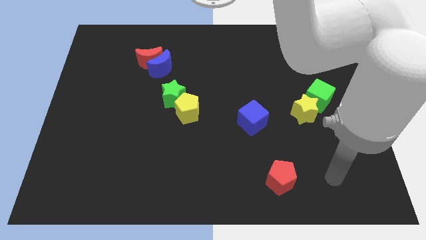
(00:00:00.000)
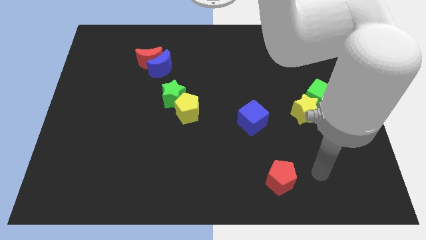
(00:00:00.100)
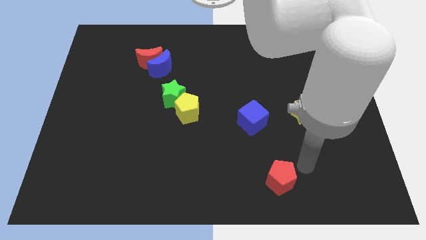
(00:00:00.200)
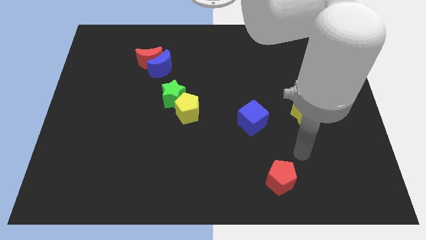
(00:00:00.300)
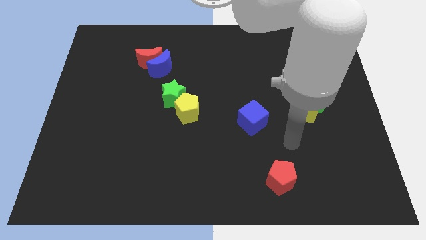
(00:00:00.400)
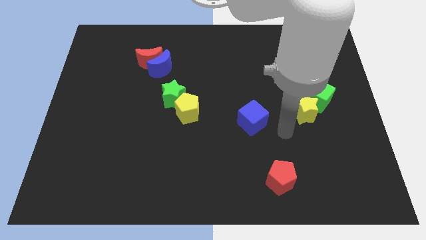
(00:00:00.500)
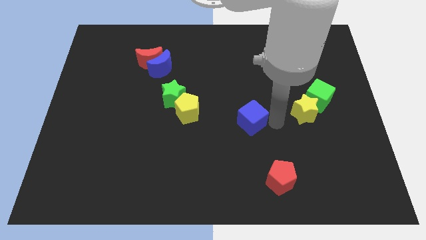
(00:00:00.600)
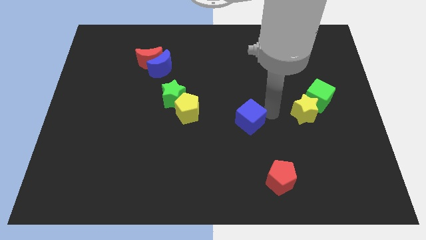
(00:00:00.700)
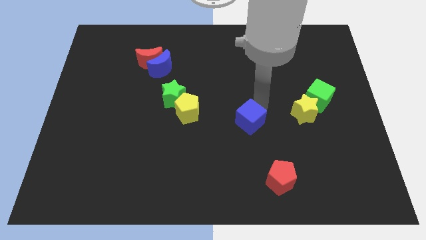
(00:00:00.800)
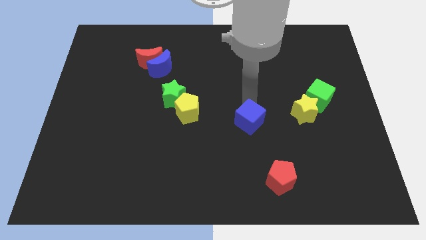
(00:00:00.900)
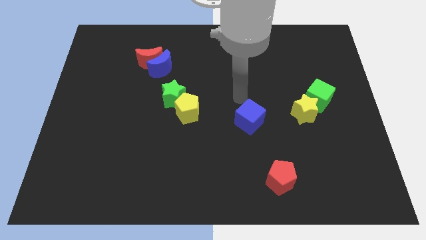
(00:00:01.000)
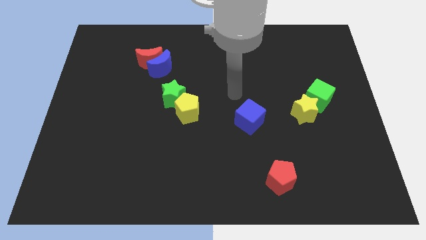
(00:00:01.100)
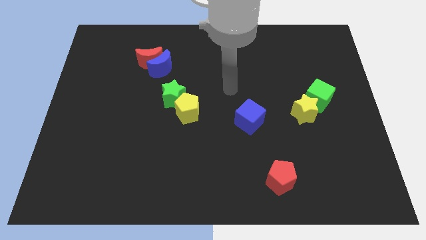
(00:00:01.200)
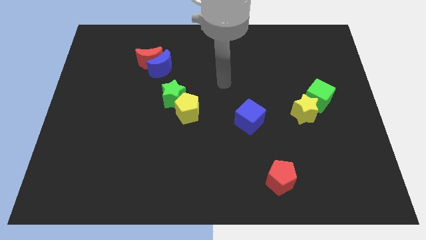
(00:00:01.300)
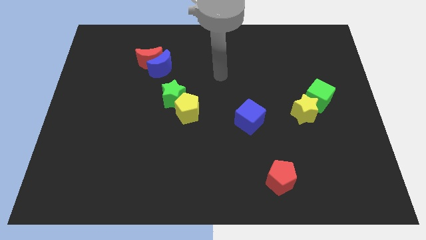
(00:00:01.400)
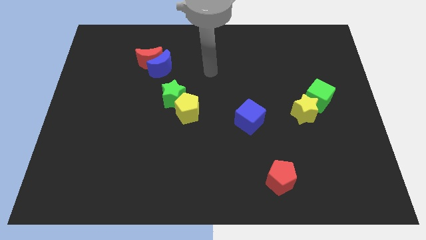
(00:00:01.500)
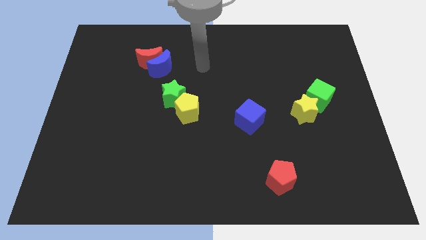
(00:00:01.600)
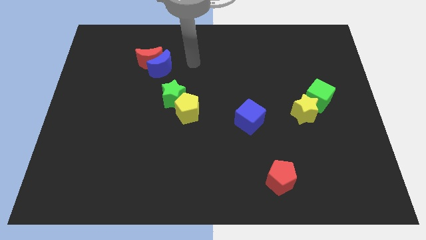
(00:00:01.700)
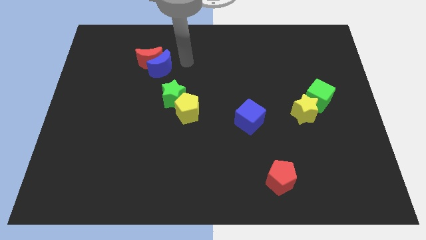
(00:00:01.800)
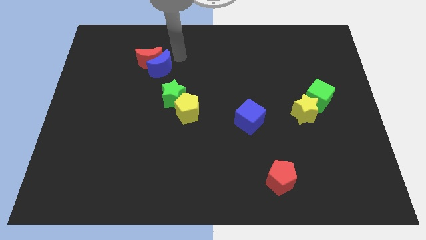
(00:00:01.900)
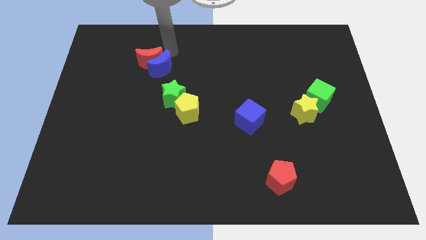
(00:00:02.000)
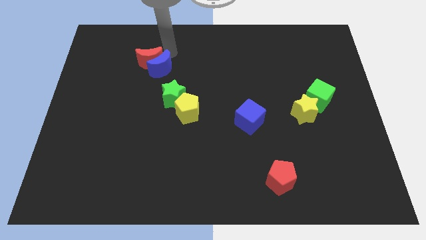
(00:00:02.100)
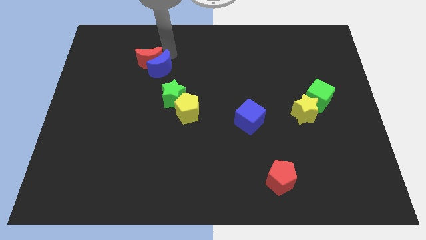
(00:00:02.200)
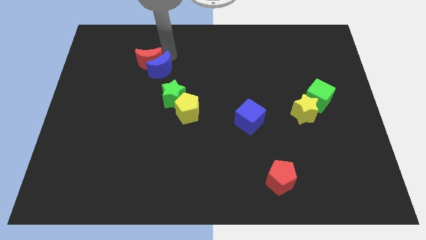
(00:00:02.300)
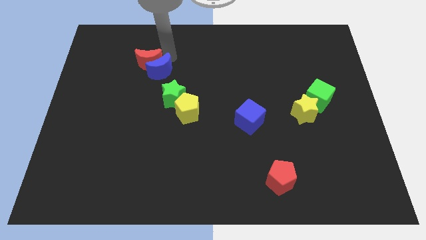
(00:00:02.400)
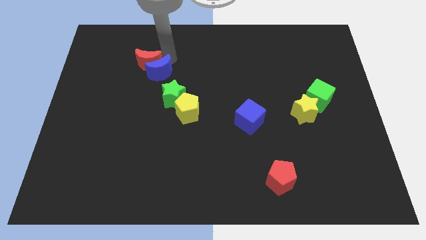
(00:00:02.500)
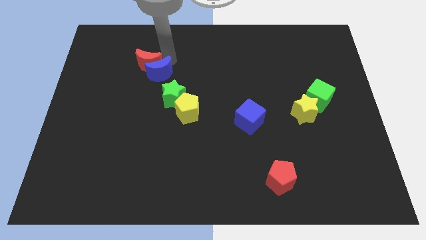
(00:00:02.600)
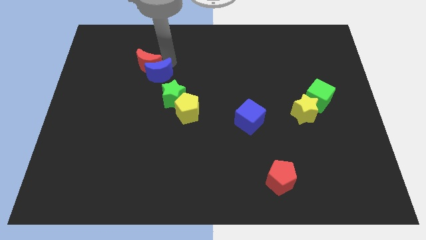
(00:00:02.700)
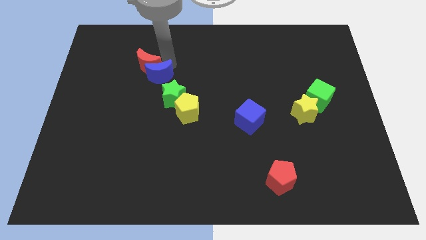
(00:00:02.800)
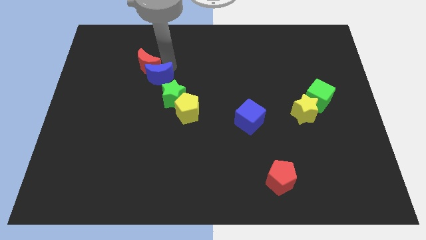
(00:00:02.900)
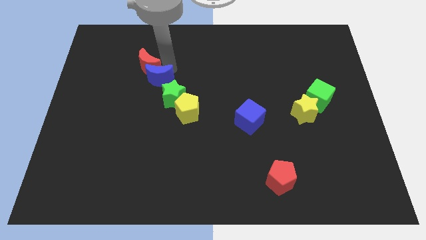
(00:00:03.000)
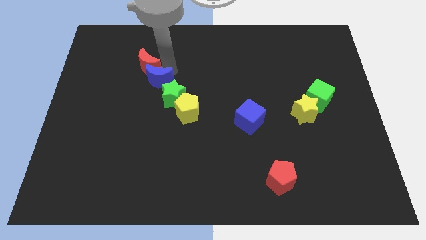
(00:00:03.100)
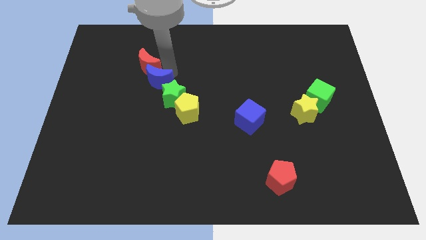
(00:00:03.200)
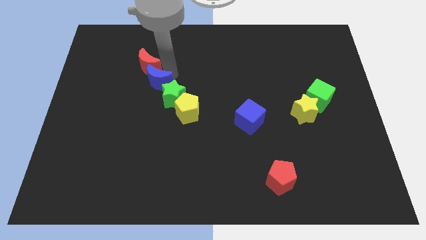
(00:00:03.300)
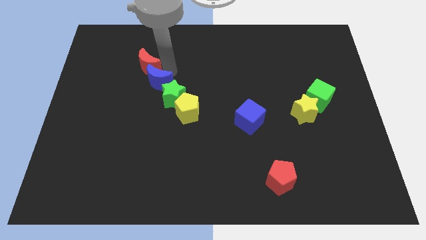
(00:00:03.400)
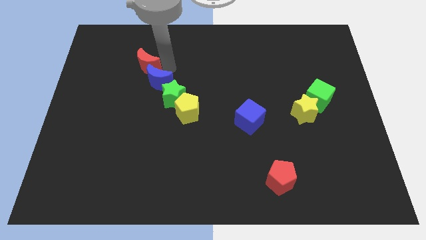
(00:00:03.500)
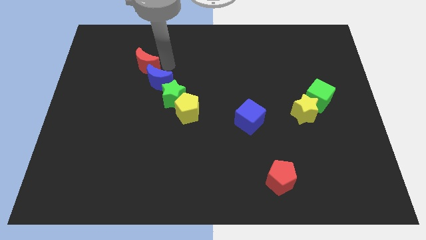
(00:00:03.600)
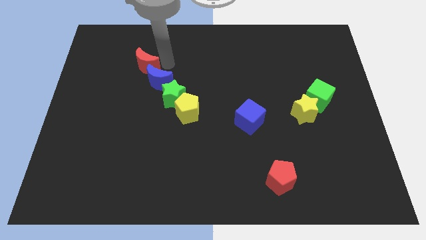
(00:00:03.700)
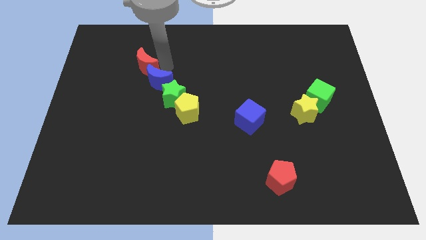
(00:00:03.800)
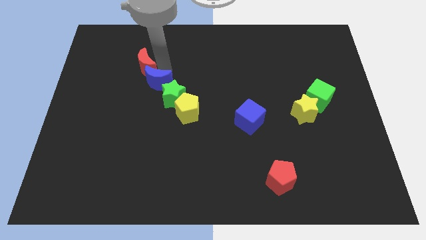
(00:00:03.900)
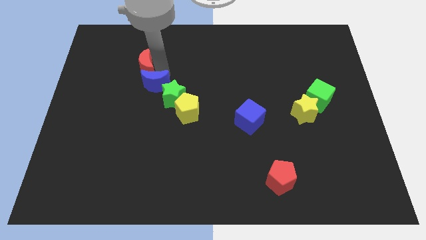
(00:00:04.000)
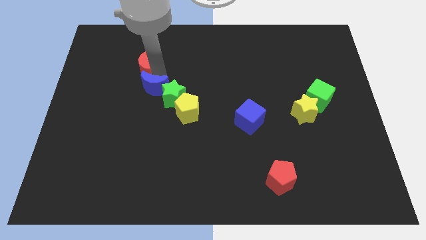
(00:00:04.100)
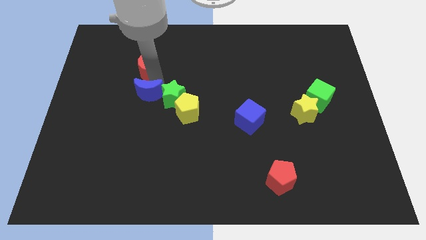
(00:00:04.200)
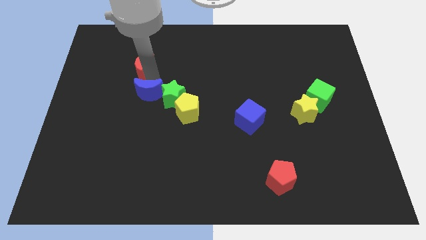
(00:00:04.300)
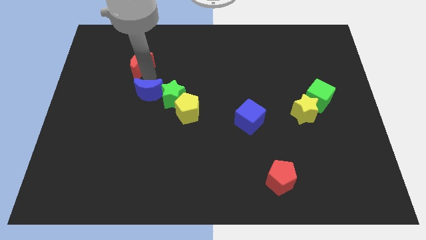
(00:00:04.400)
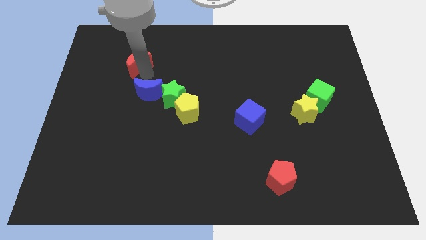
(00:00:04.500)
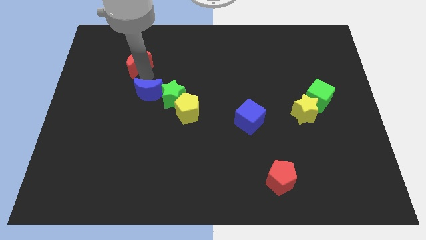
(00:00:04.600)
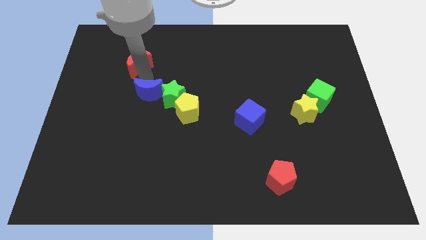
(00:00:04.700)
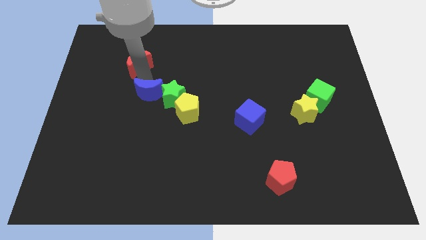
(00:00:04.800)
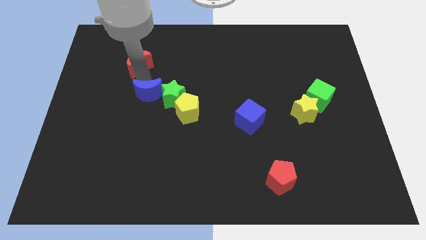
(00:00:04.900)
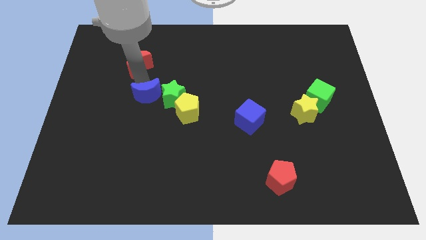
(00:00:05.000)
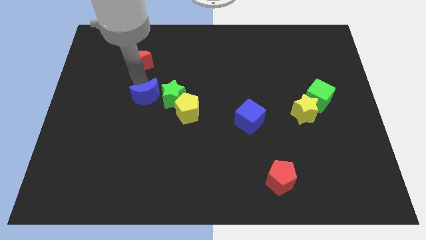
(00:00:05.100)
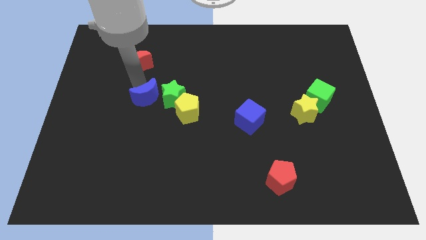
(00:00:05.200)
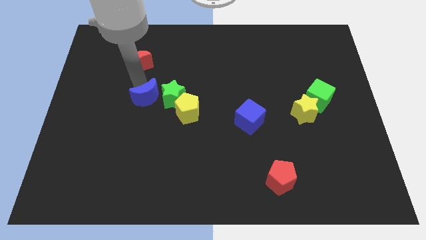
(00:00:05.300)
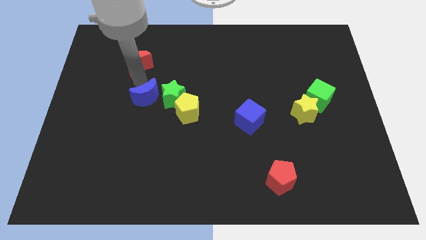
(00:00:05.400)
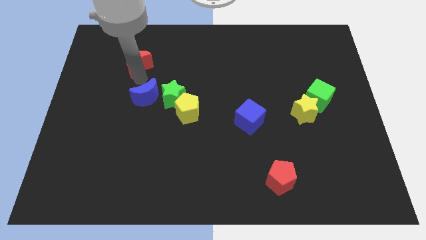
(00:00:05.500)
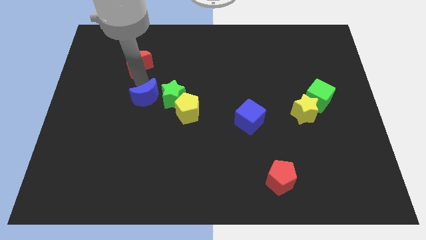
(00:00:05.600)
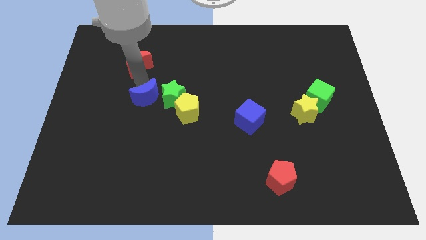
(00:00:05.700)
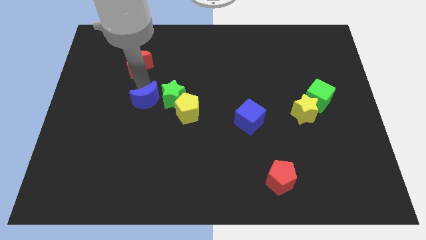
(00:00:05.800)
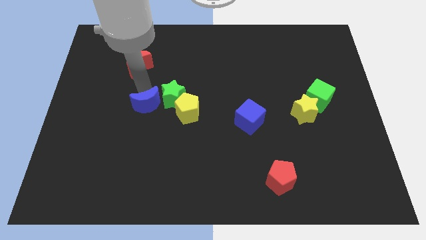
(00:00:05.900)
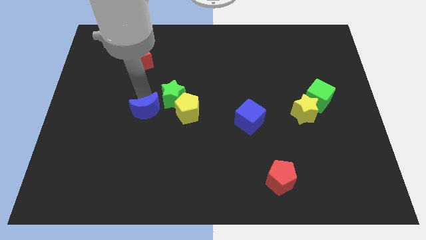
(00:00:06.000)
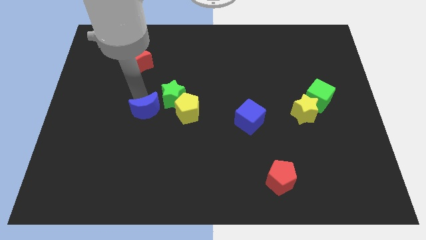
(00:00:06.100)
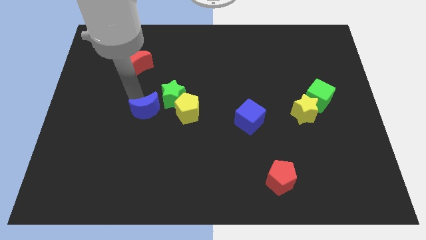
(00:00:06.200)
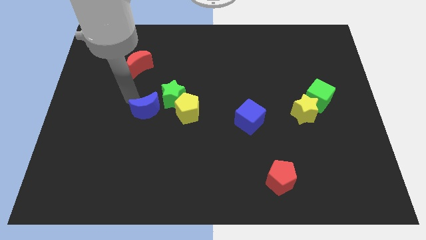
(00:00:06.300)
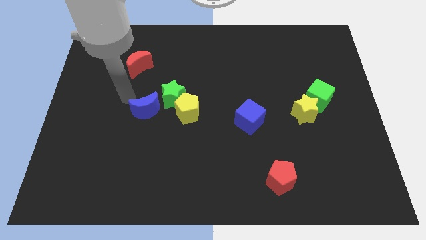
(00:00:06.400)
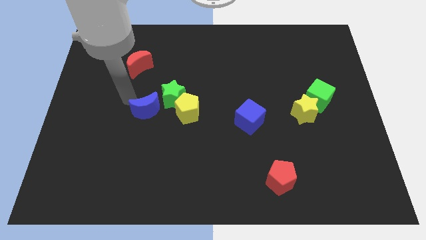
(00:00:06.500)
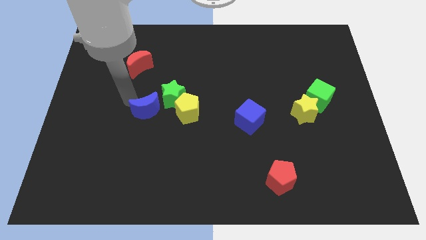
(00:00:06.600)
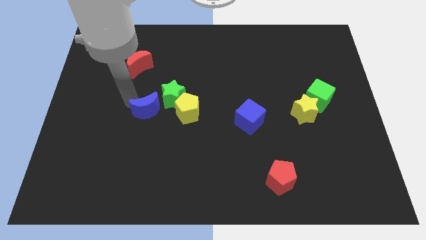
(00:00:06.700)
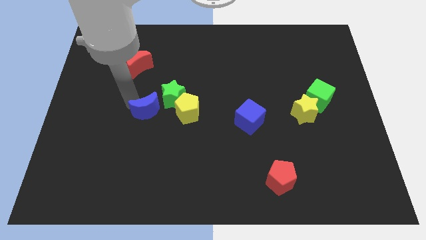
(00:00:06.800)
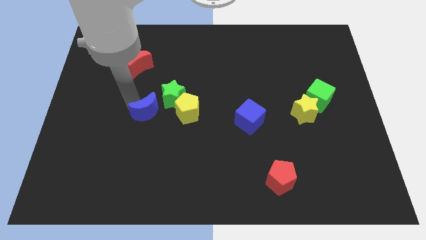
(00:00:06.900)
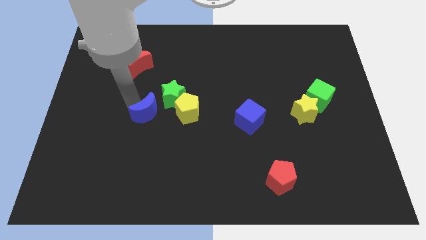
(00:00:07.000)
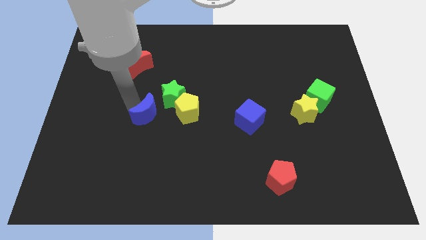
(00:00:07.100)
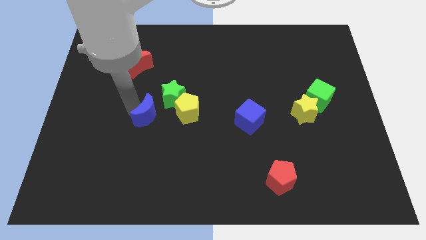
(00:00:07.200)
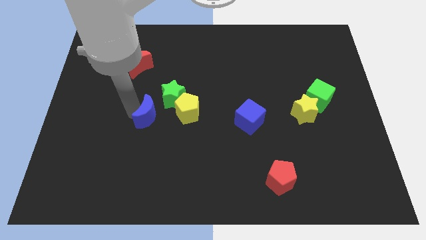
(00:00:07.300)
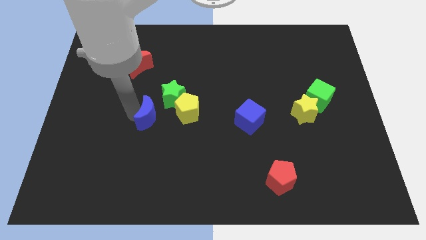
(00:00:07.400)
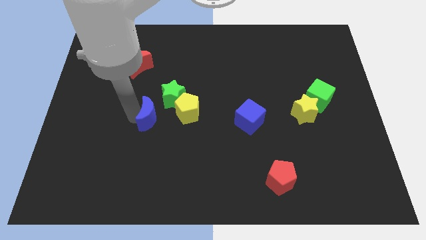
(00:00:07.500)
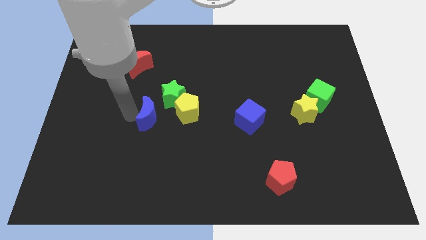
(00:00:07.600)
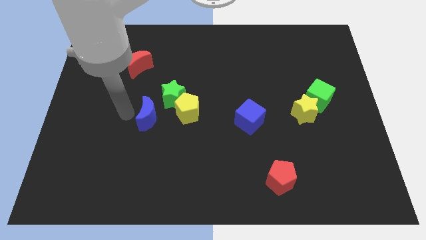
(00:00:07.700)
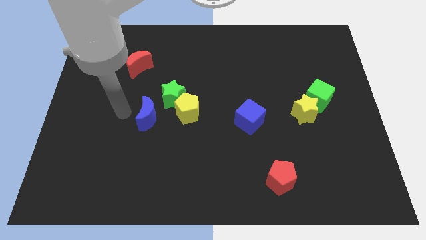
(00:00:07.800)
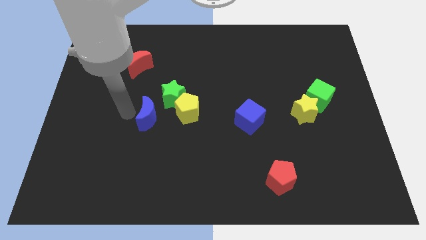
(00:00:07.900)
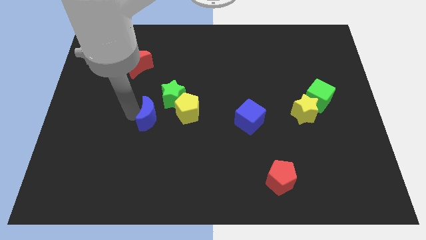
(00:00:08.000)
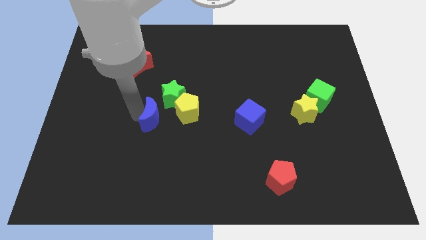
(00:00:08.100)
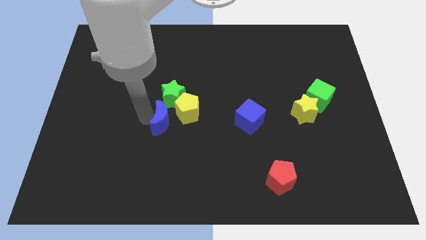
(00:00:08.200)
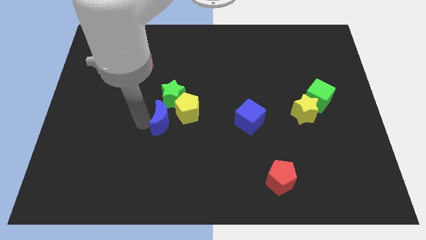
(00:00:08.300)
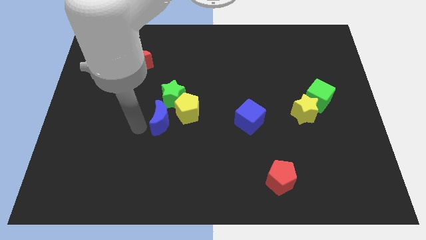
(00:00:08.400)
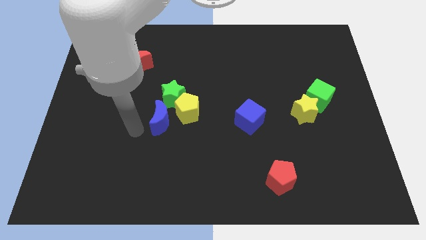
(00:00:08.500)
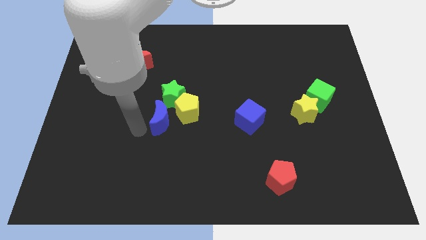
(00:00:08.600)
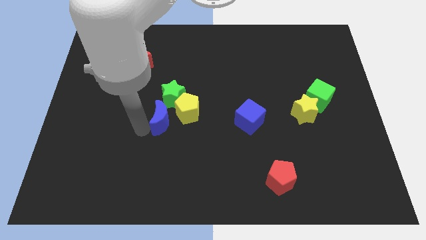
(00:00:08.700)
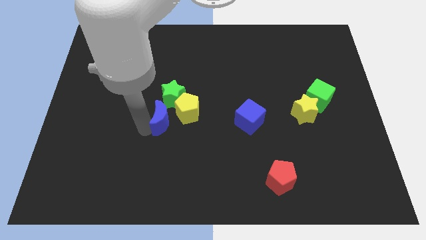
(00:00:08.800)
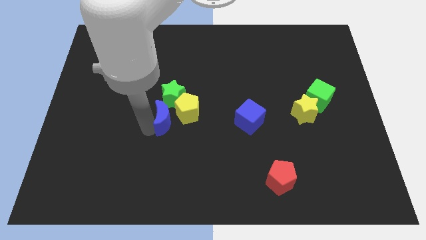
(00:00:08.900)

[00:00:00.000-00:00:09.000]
put the blue moon to the yellow pentagon
